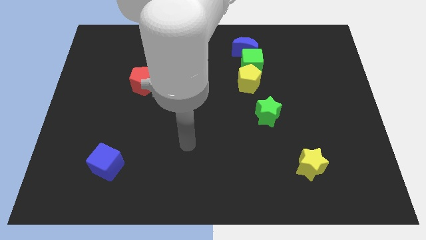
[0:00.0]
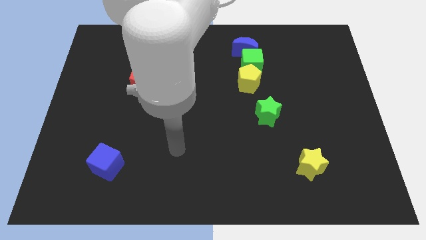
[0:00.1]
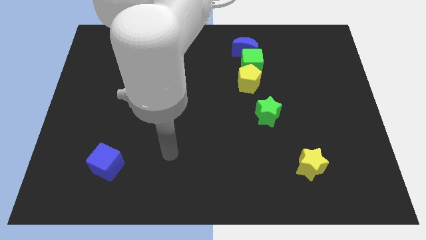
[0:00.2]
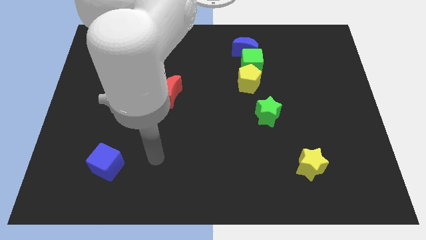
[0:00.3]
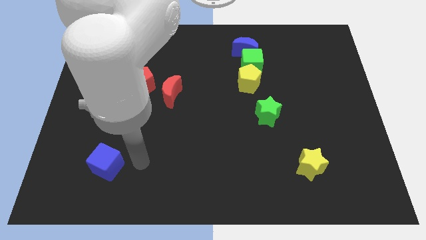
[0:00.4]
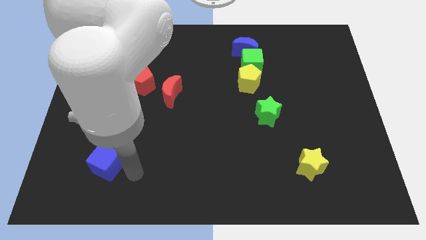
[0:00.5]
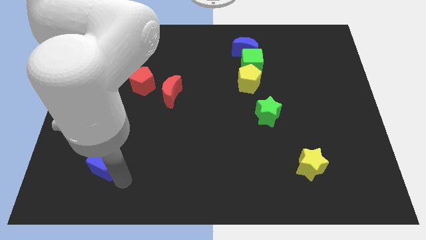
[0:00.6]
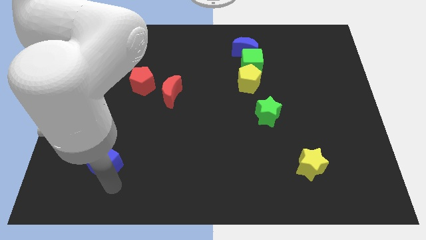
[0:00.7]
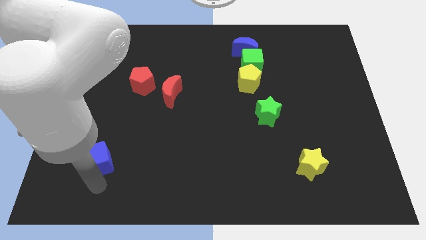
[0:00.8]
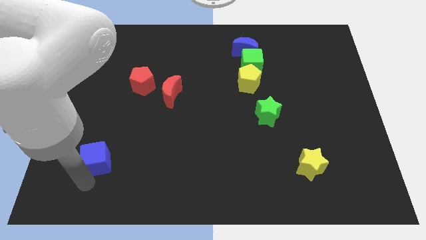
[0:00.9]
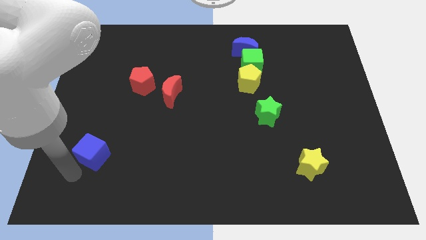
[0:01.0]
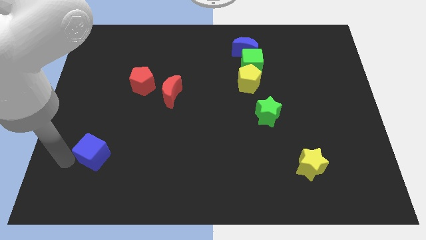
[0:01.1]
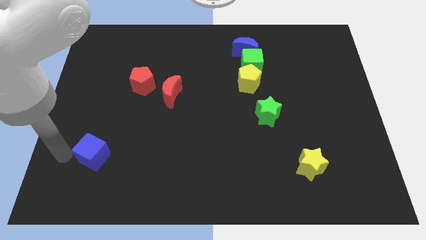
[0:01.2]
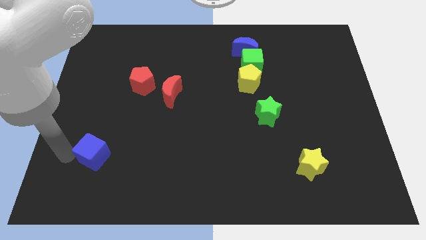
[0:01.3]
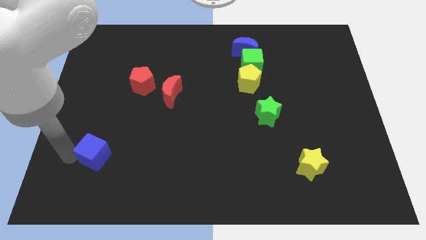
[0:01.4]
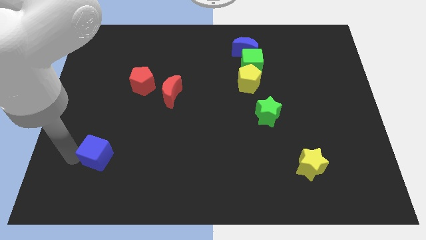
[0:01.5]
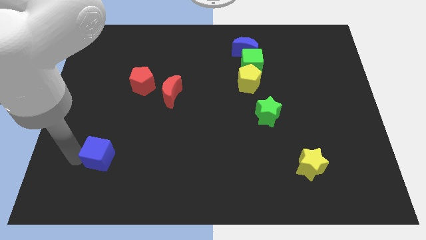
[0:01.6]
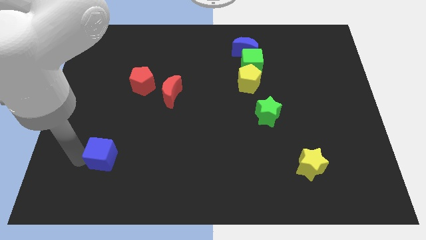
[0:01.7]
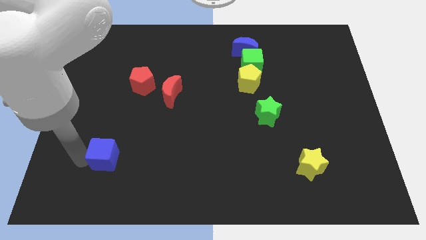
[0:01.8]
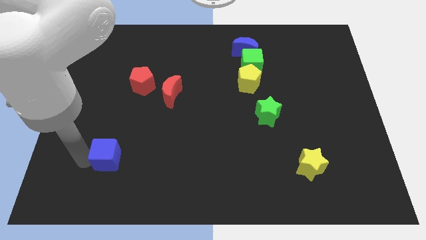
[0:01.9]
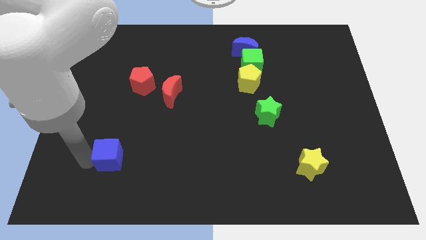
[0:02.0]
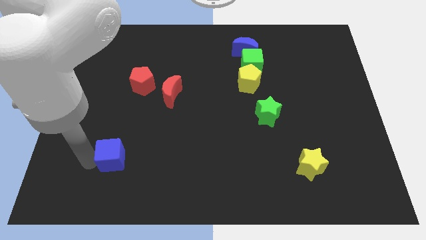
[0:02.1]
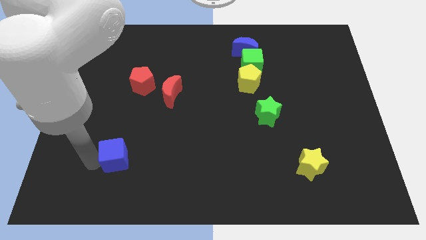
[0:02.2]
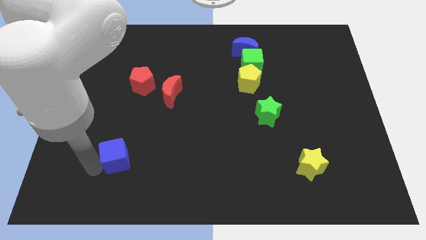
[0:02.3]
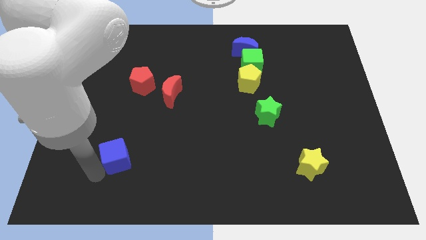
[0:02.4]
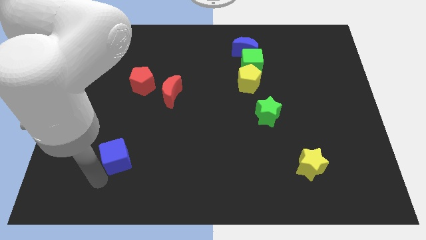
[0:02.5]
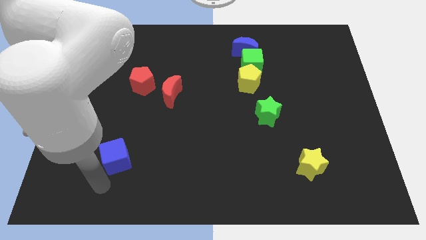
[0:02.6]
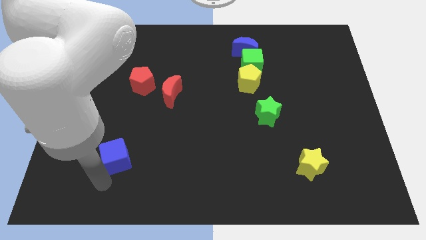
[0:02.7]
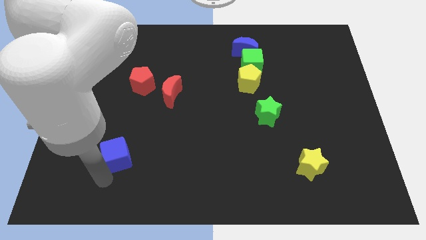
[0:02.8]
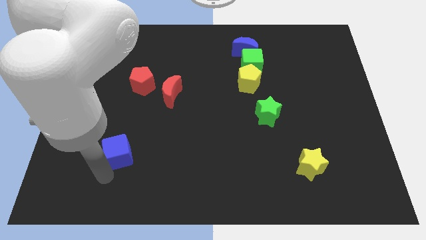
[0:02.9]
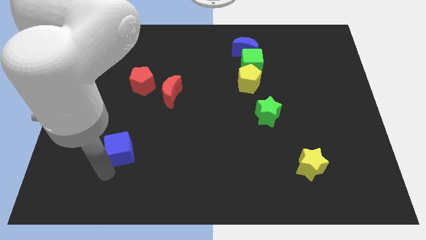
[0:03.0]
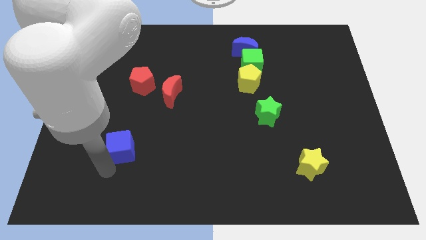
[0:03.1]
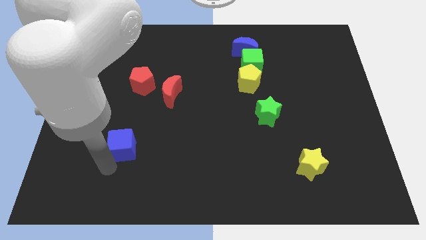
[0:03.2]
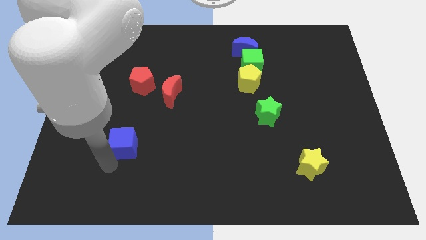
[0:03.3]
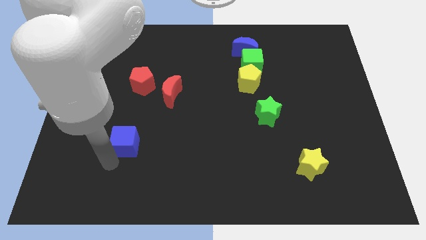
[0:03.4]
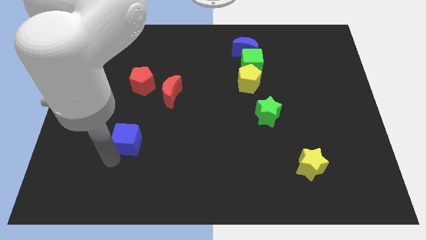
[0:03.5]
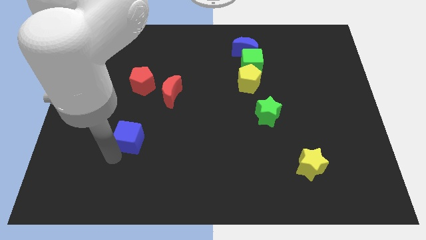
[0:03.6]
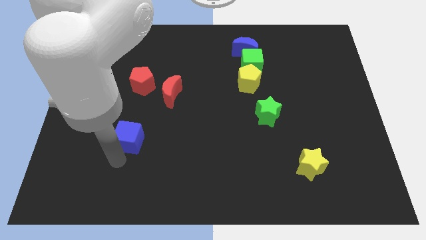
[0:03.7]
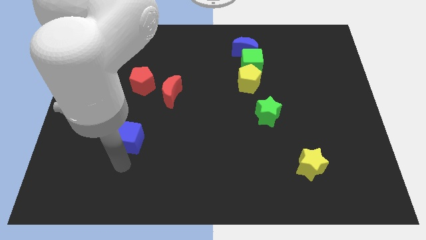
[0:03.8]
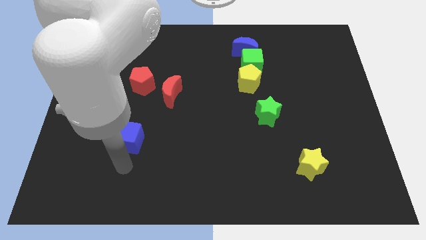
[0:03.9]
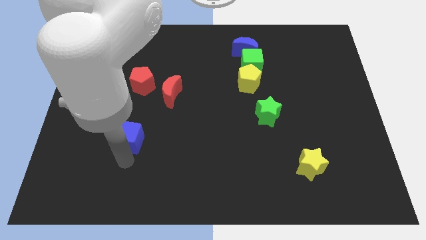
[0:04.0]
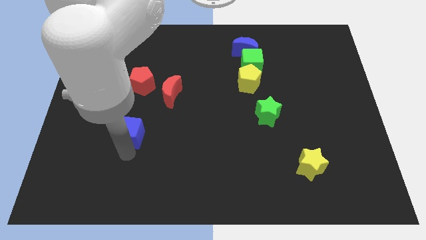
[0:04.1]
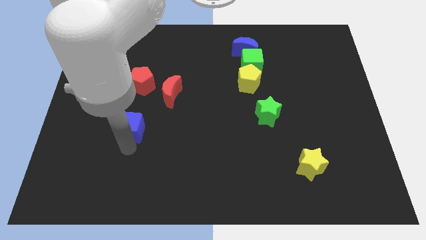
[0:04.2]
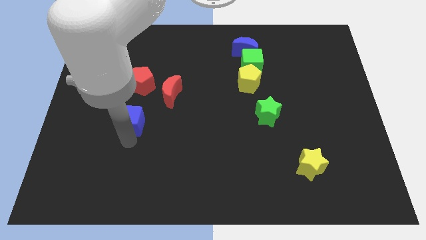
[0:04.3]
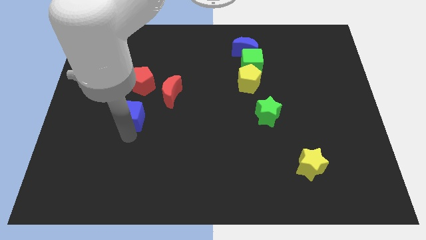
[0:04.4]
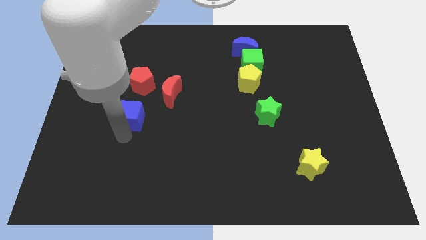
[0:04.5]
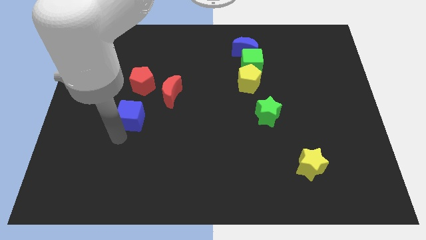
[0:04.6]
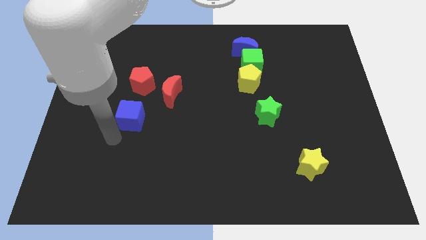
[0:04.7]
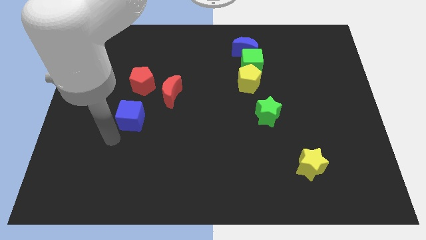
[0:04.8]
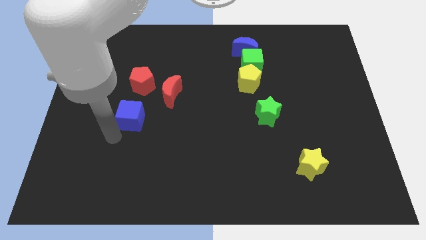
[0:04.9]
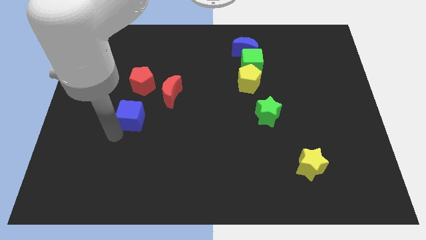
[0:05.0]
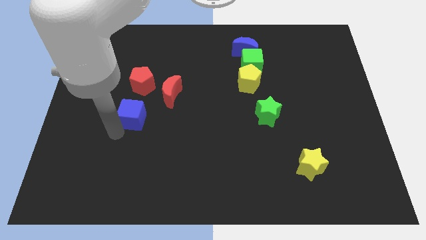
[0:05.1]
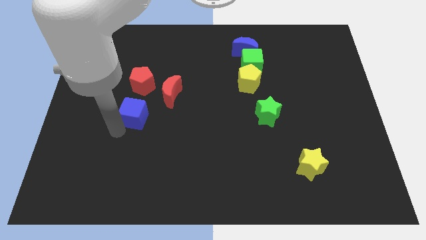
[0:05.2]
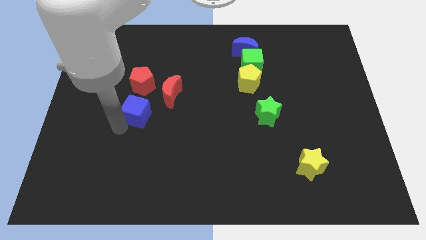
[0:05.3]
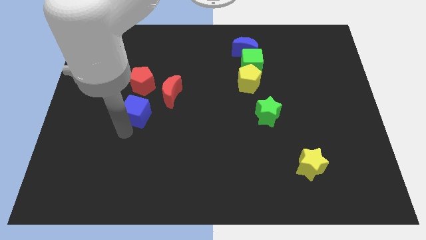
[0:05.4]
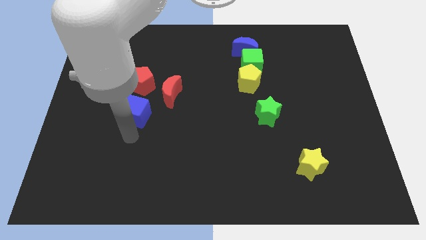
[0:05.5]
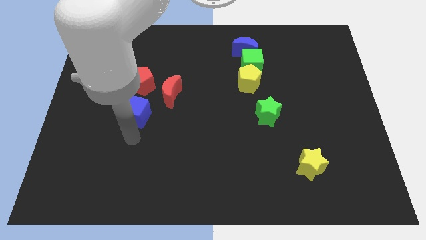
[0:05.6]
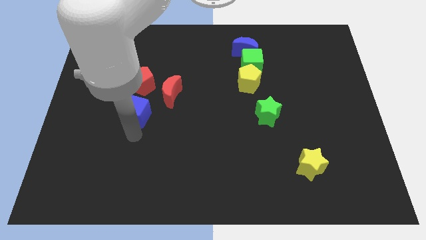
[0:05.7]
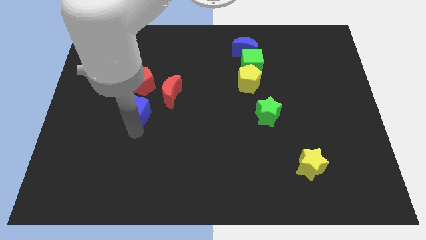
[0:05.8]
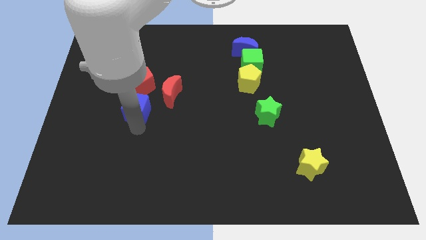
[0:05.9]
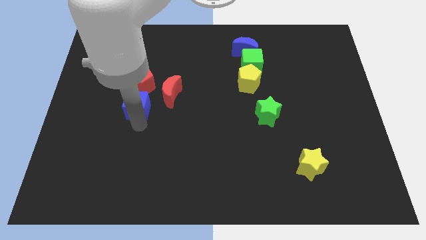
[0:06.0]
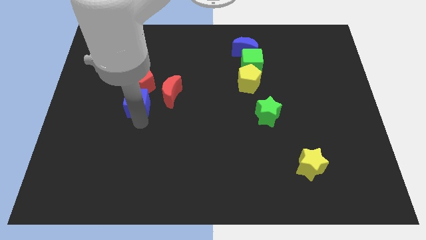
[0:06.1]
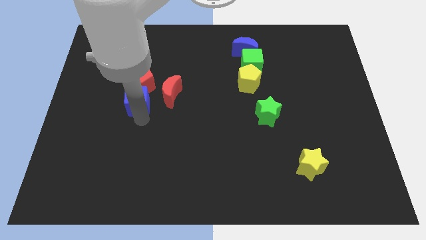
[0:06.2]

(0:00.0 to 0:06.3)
slide the blue cube next to the red pentagon

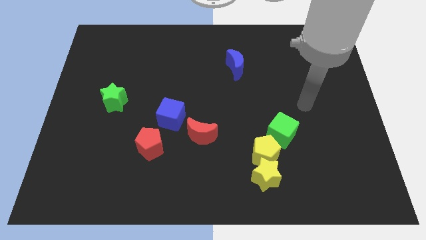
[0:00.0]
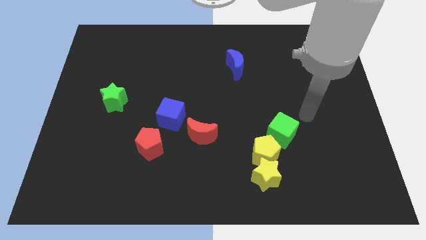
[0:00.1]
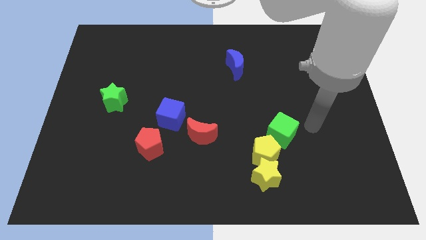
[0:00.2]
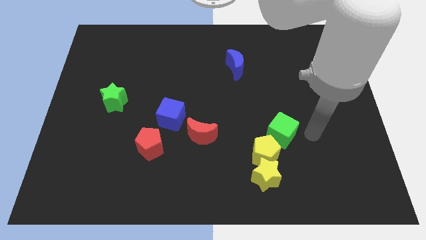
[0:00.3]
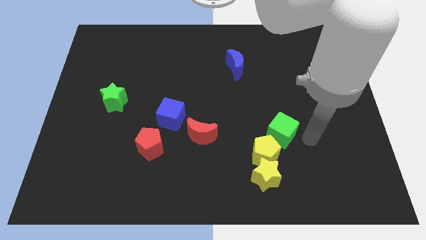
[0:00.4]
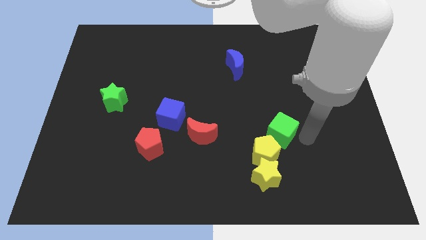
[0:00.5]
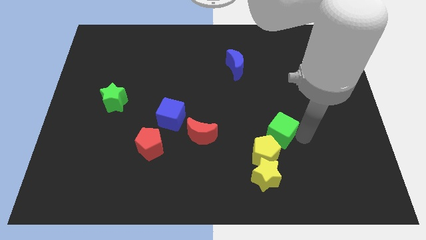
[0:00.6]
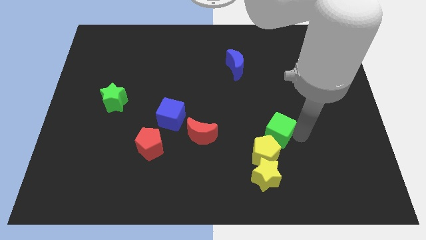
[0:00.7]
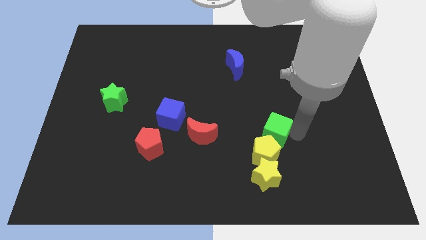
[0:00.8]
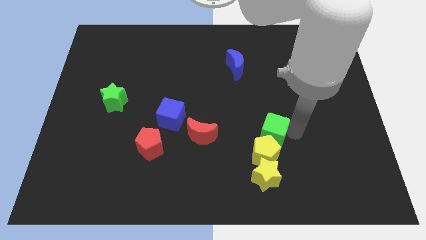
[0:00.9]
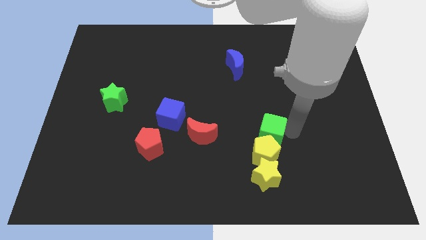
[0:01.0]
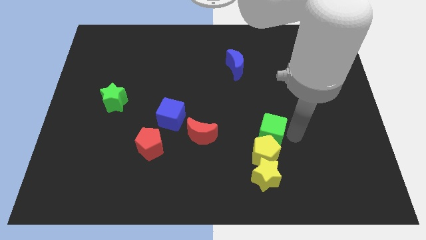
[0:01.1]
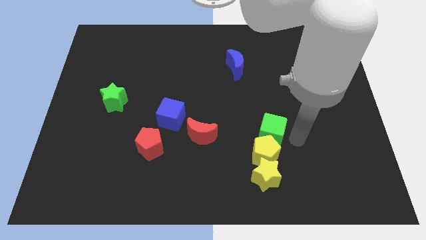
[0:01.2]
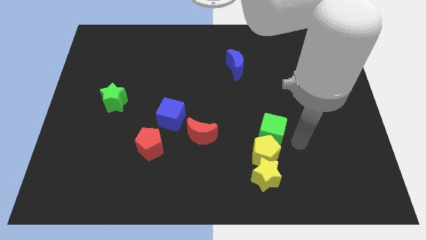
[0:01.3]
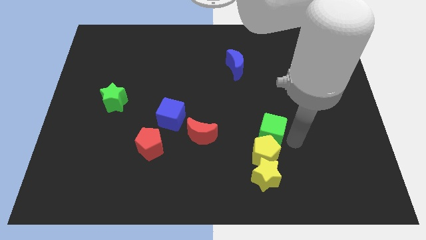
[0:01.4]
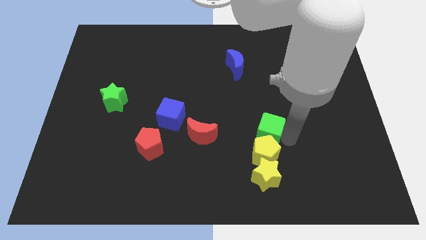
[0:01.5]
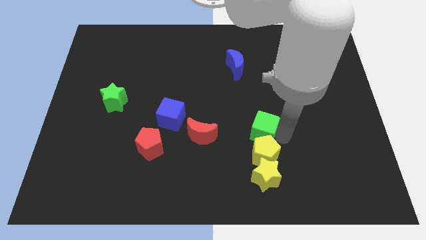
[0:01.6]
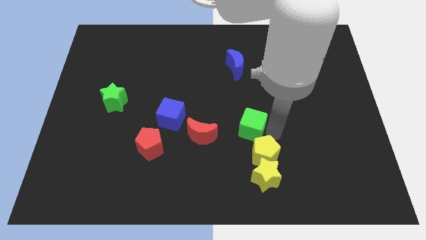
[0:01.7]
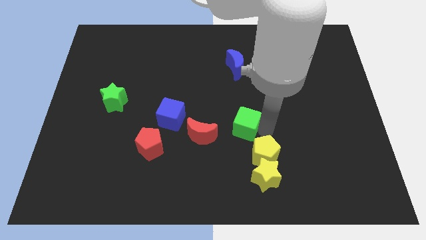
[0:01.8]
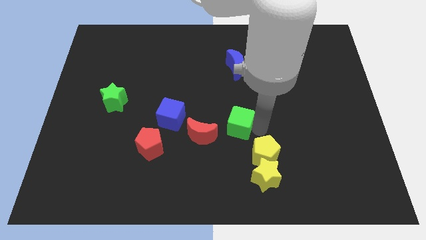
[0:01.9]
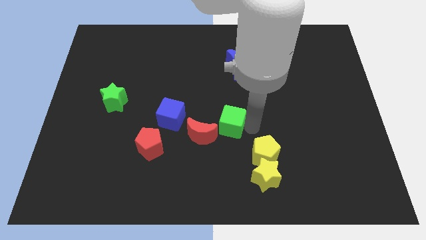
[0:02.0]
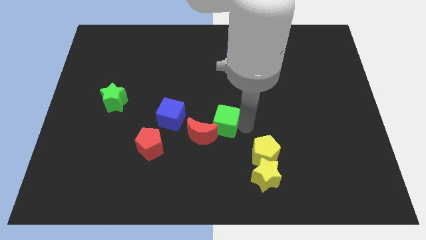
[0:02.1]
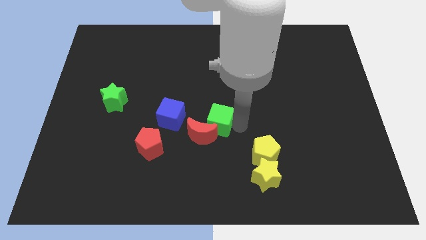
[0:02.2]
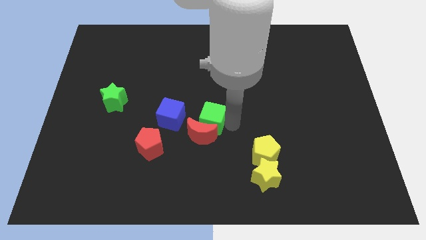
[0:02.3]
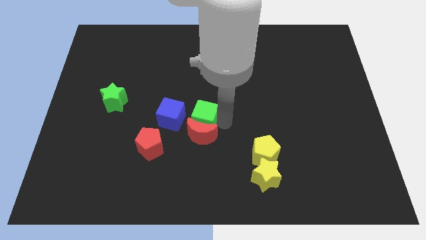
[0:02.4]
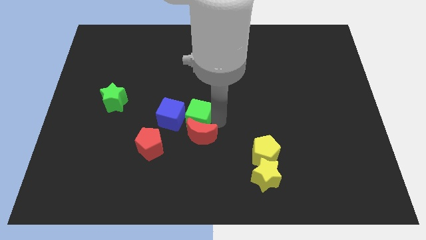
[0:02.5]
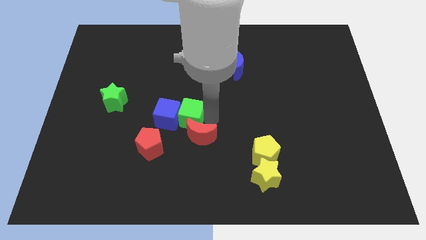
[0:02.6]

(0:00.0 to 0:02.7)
push the green cube close to the blue cube
